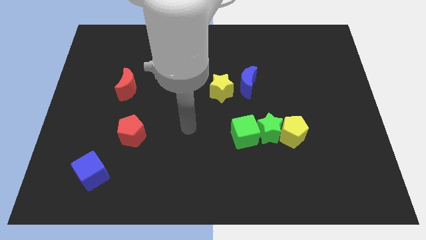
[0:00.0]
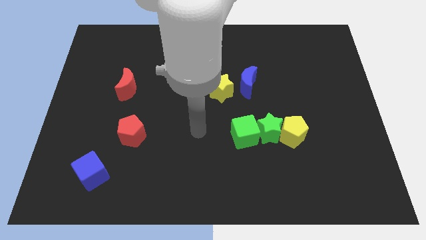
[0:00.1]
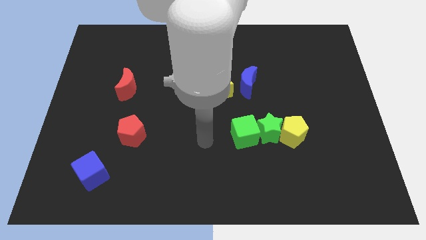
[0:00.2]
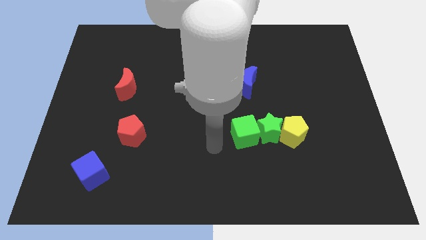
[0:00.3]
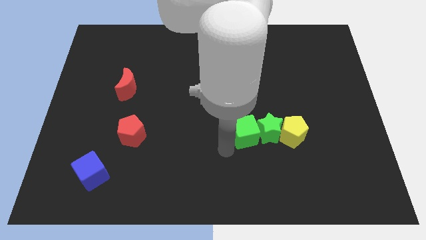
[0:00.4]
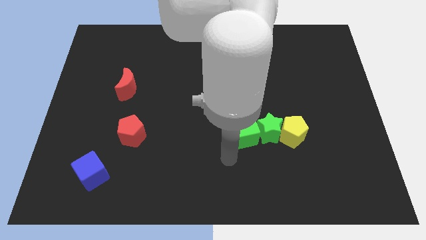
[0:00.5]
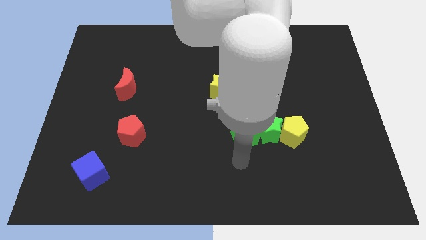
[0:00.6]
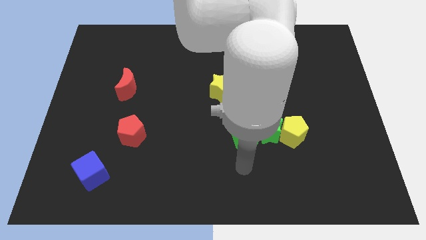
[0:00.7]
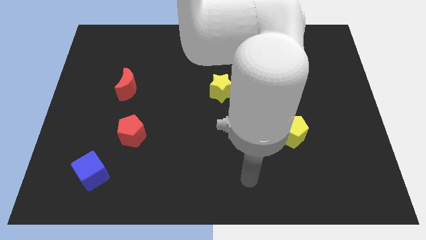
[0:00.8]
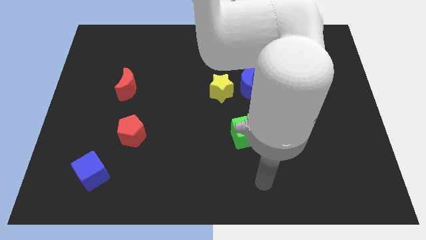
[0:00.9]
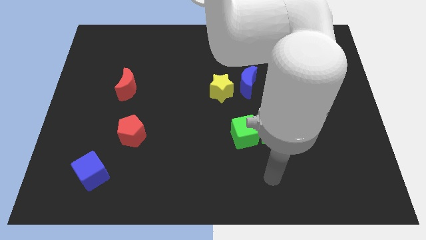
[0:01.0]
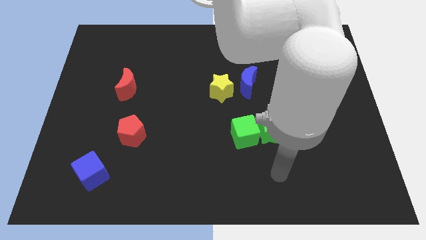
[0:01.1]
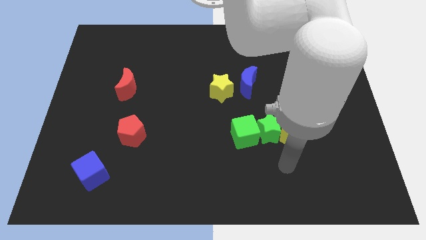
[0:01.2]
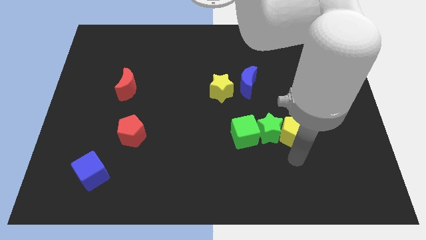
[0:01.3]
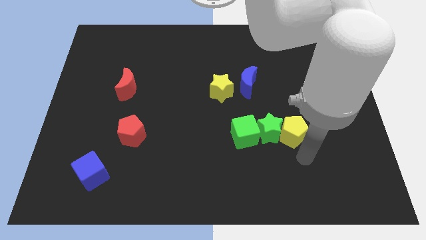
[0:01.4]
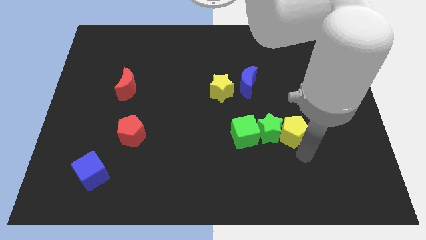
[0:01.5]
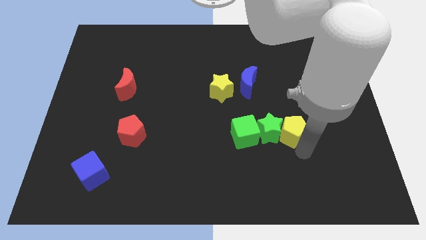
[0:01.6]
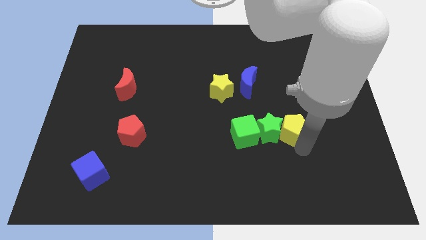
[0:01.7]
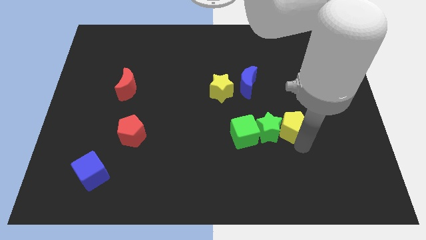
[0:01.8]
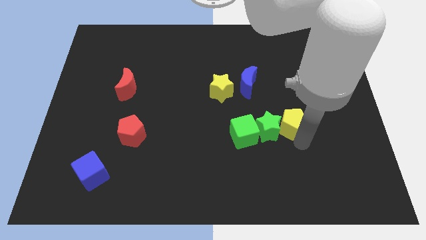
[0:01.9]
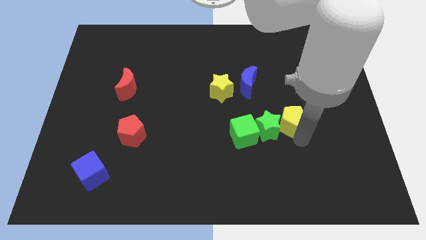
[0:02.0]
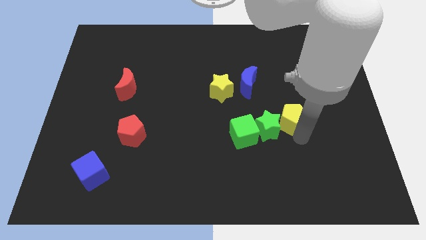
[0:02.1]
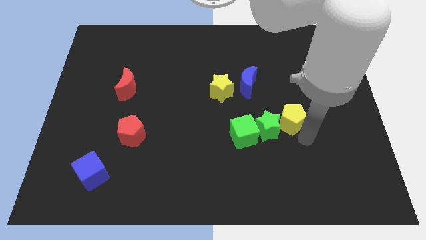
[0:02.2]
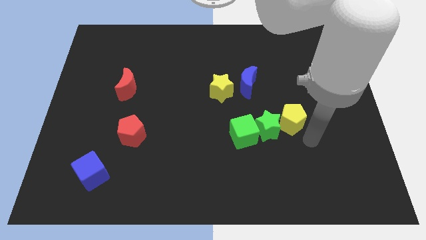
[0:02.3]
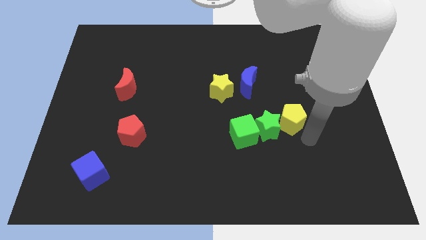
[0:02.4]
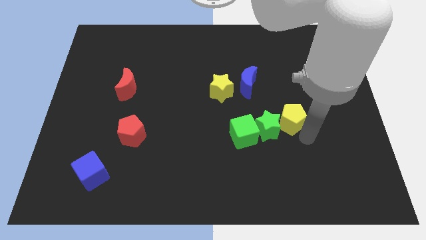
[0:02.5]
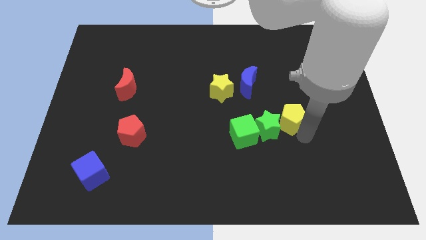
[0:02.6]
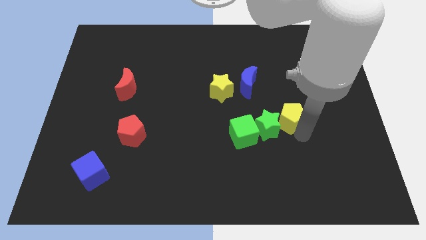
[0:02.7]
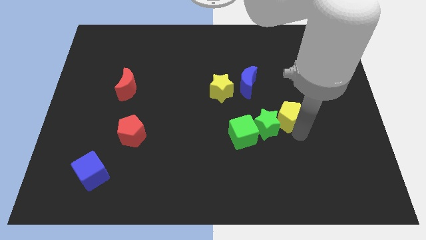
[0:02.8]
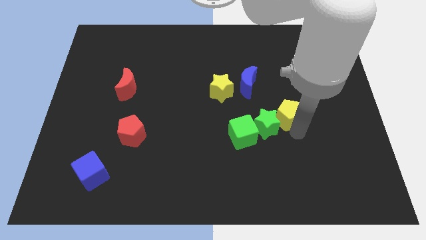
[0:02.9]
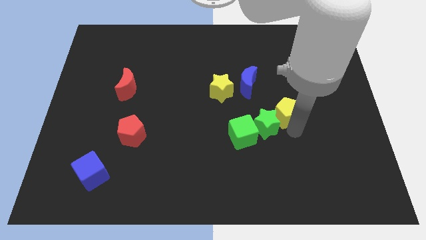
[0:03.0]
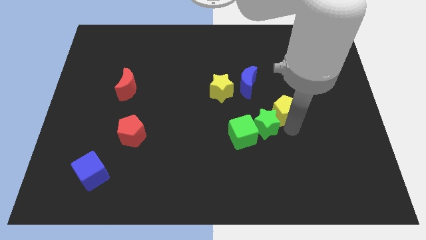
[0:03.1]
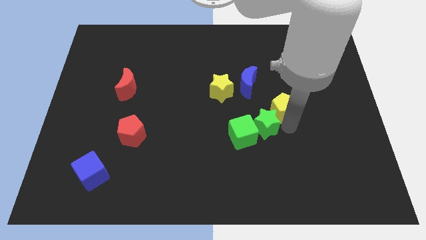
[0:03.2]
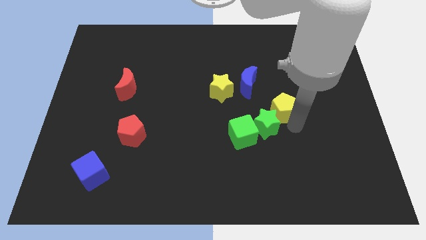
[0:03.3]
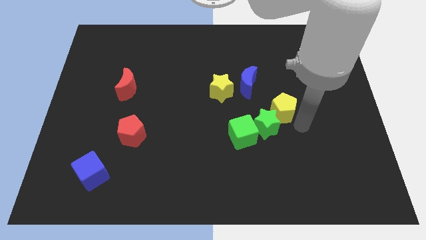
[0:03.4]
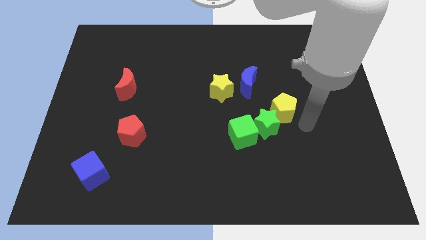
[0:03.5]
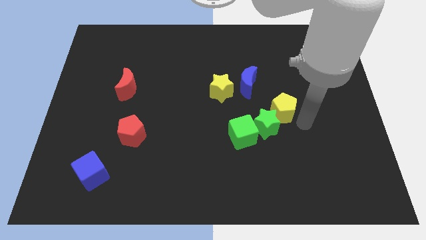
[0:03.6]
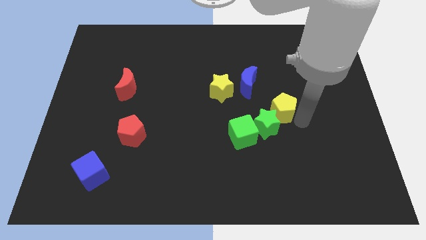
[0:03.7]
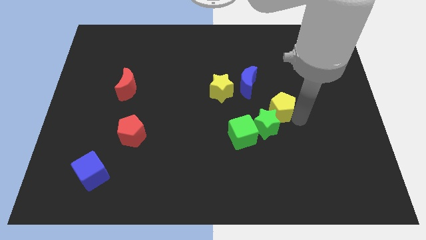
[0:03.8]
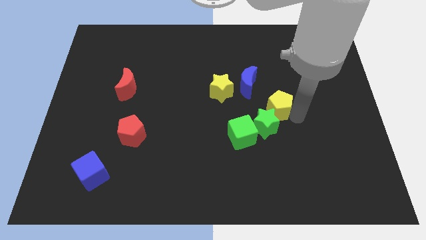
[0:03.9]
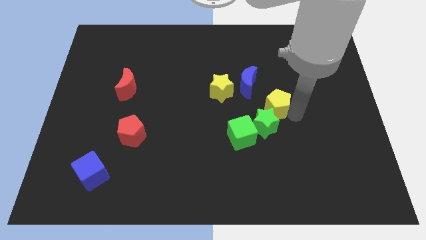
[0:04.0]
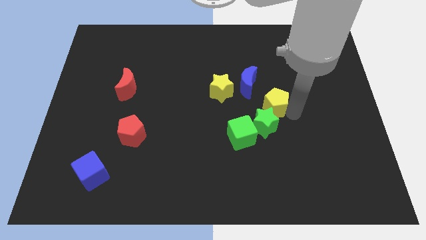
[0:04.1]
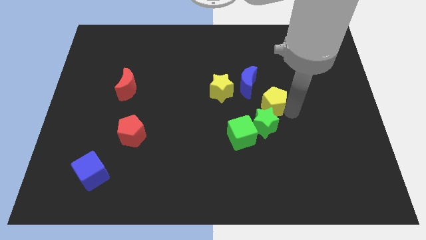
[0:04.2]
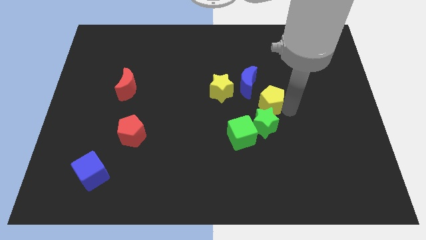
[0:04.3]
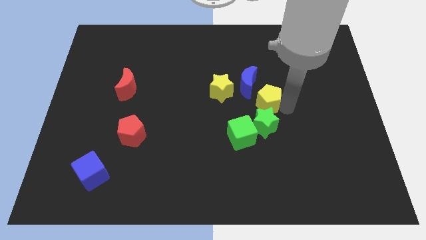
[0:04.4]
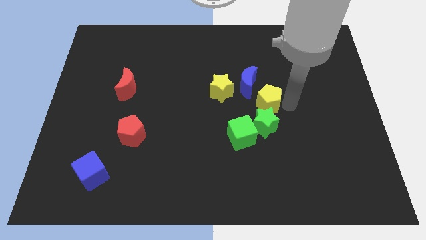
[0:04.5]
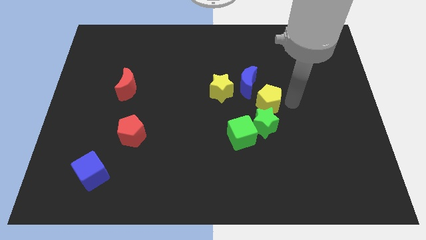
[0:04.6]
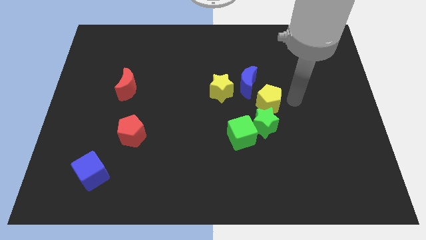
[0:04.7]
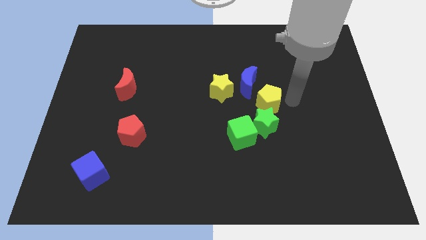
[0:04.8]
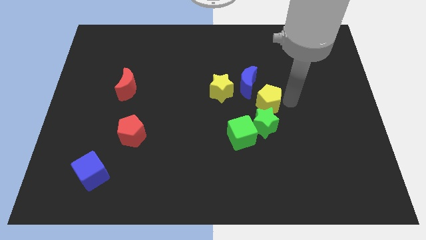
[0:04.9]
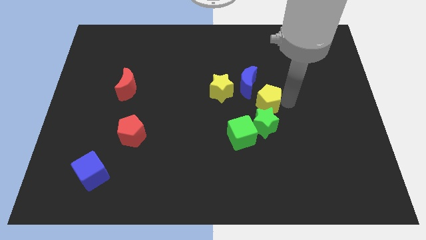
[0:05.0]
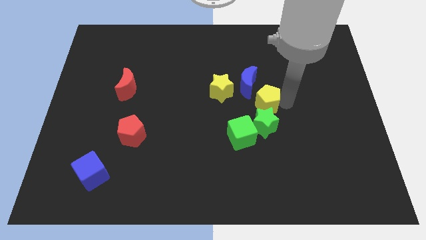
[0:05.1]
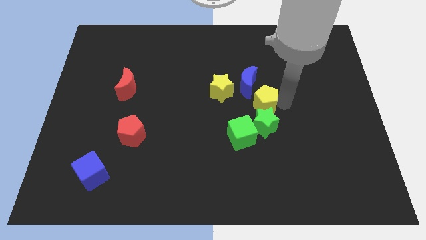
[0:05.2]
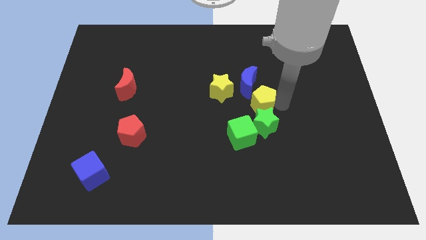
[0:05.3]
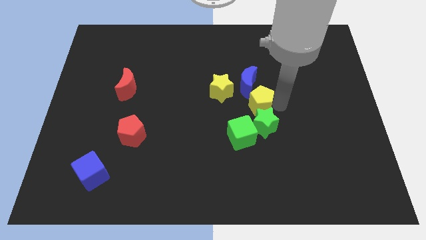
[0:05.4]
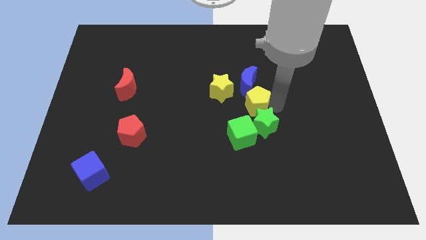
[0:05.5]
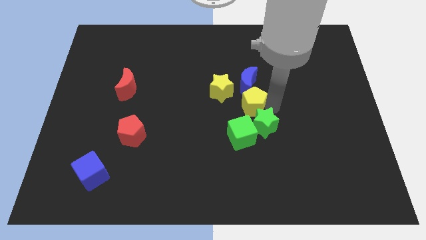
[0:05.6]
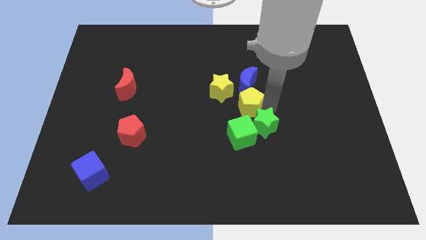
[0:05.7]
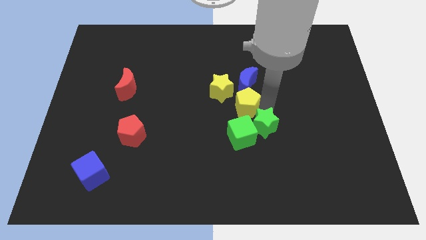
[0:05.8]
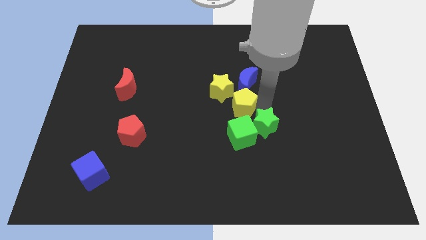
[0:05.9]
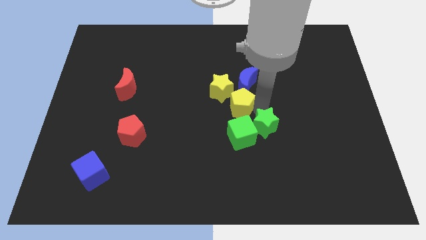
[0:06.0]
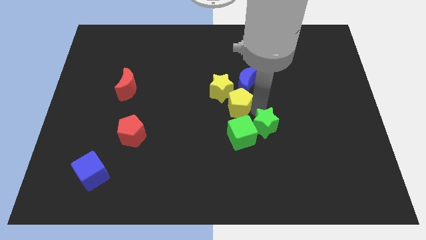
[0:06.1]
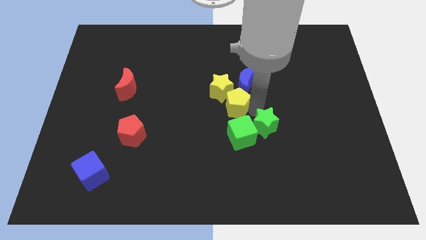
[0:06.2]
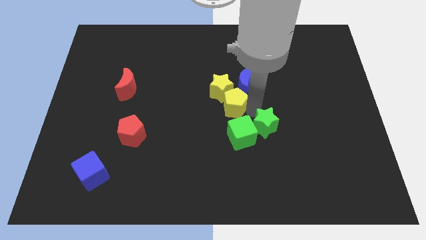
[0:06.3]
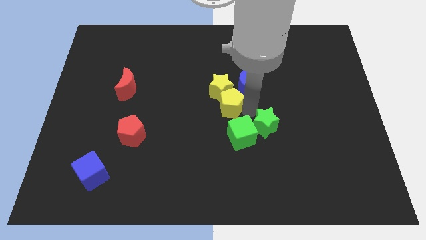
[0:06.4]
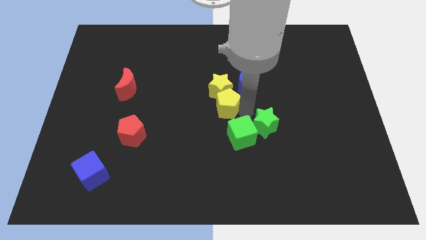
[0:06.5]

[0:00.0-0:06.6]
move the yellow pentagon diagonally down and to the left of the yellow star

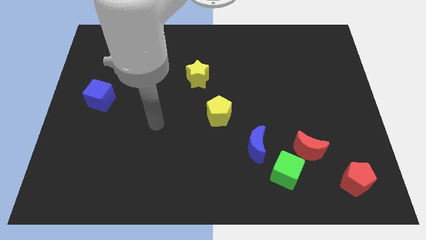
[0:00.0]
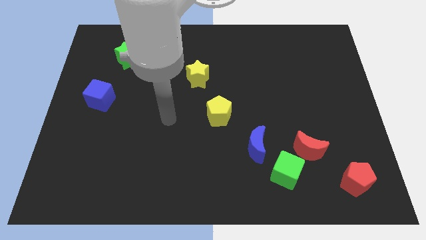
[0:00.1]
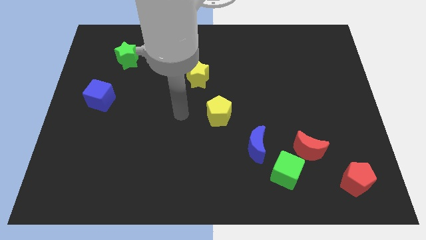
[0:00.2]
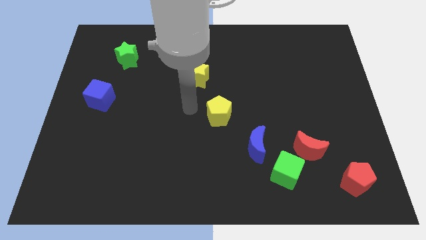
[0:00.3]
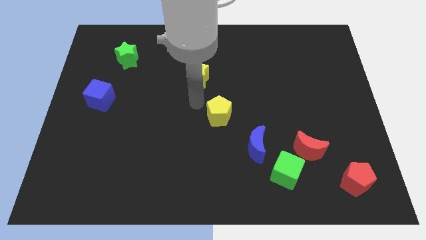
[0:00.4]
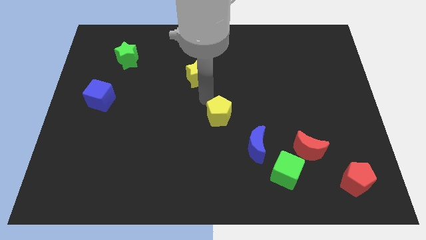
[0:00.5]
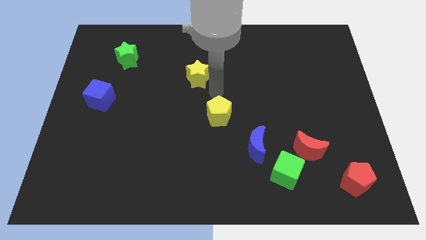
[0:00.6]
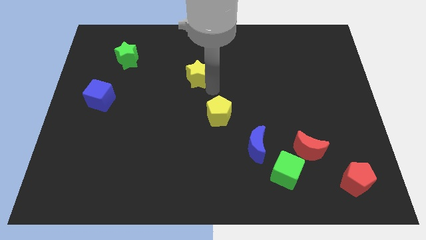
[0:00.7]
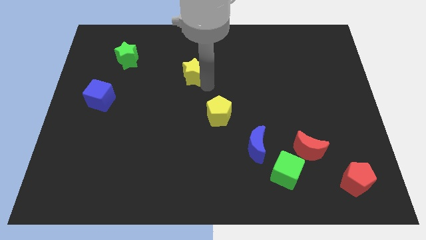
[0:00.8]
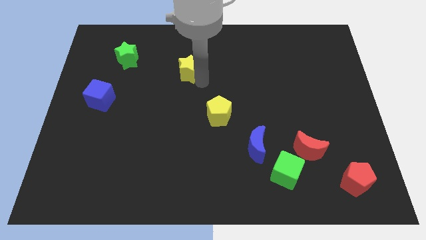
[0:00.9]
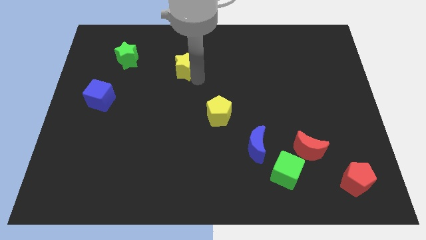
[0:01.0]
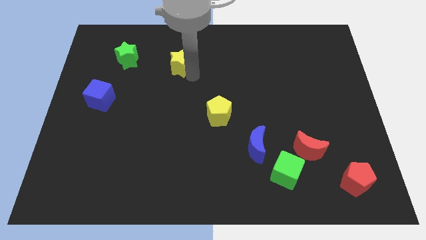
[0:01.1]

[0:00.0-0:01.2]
slide the yellow star to the right of the green star
